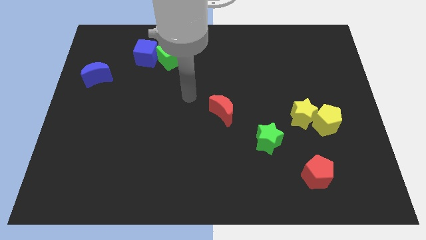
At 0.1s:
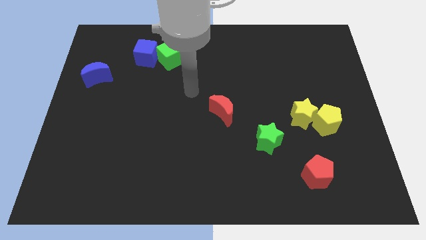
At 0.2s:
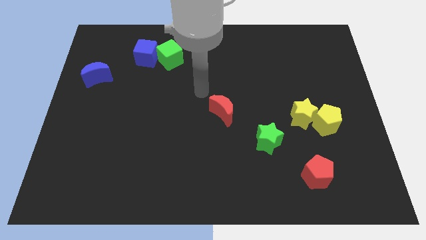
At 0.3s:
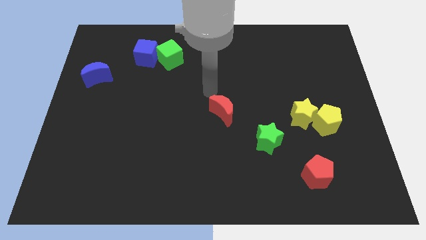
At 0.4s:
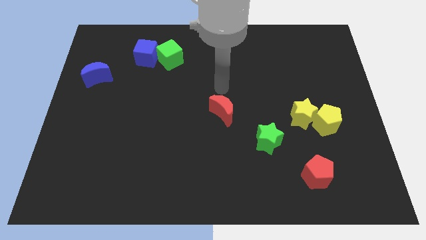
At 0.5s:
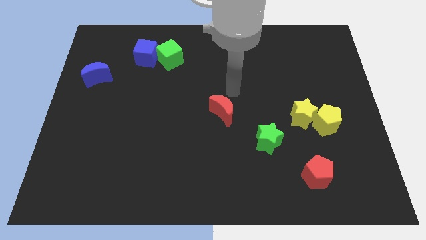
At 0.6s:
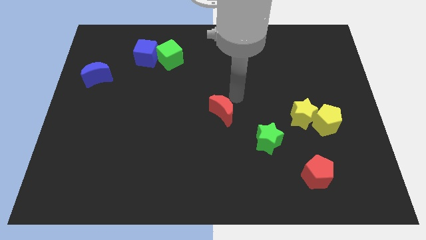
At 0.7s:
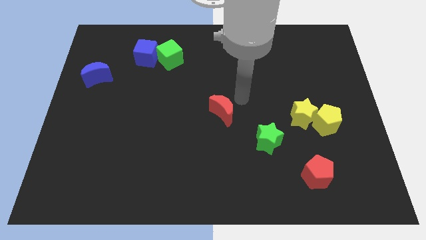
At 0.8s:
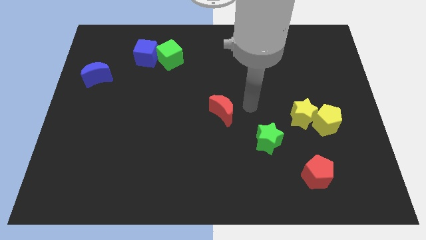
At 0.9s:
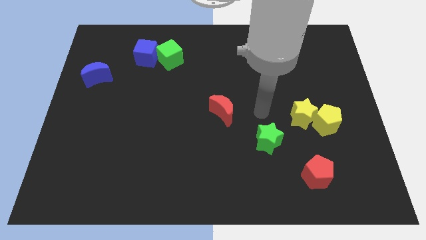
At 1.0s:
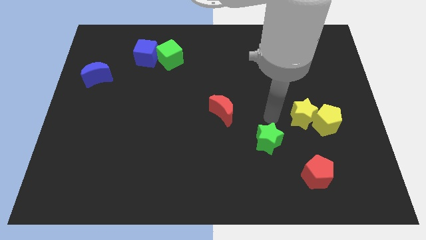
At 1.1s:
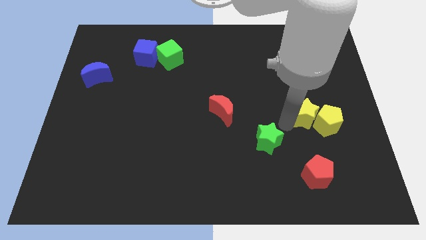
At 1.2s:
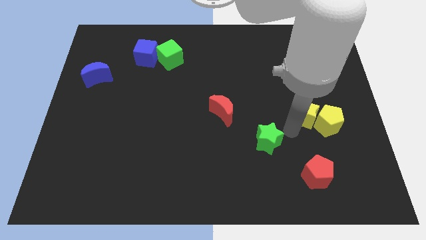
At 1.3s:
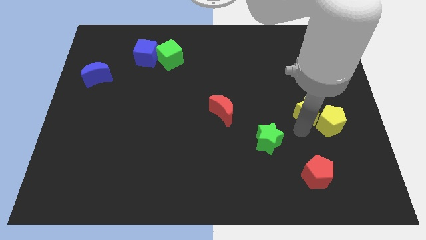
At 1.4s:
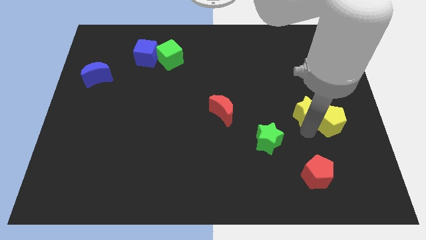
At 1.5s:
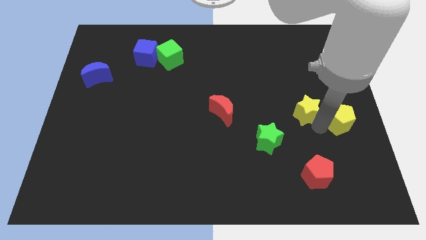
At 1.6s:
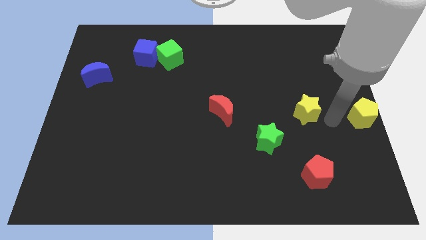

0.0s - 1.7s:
pull the yellow star apart from the yellow pentagon

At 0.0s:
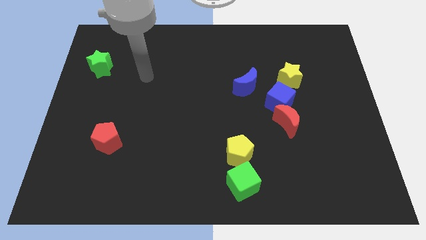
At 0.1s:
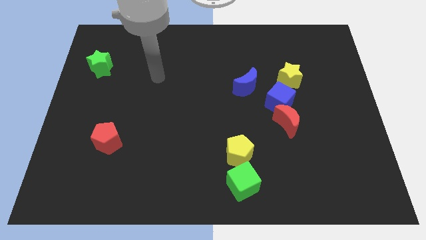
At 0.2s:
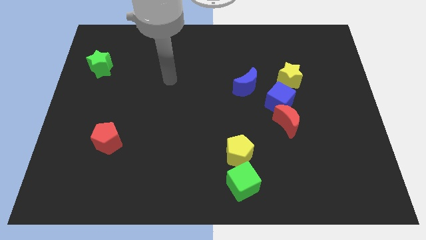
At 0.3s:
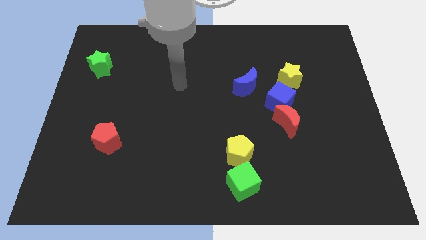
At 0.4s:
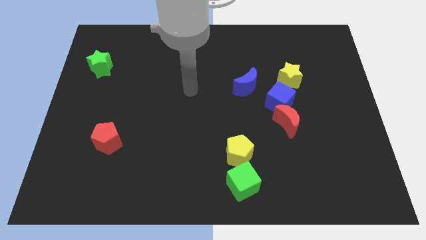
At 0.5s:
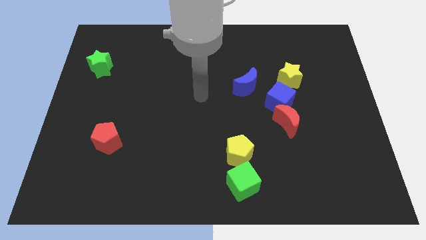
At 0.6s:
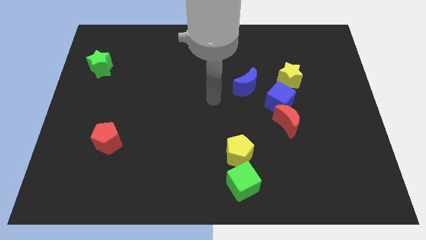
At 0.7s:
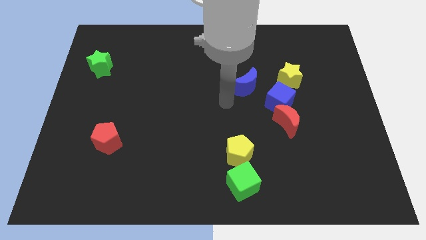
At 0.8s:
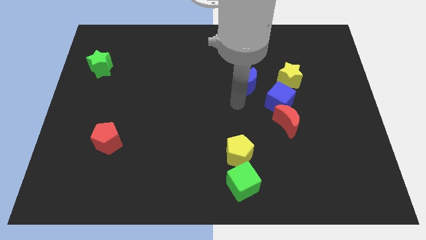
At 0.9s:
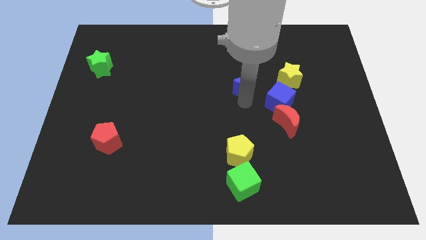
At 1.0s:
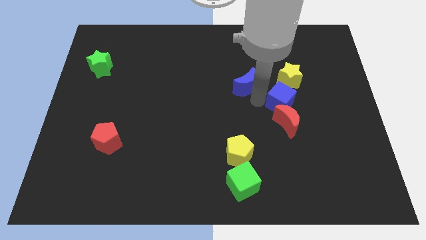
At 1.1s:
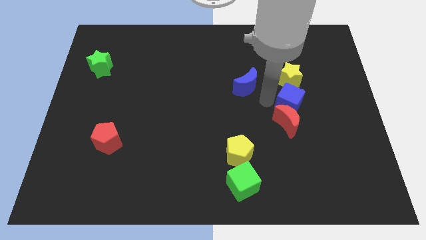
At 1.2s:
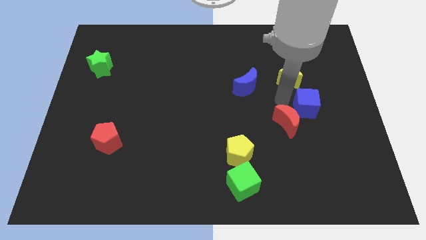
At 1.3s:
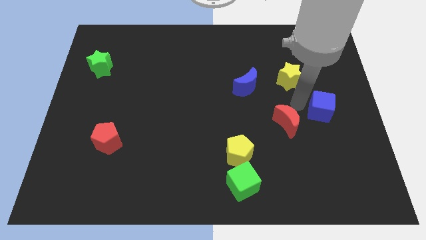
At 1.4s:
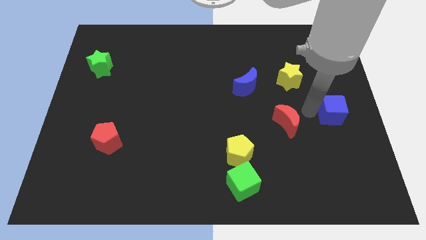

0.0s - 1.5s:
move the red moon away from the blue cube

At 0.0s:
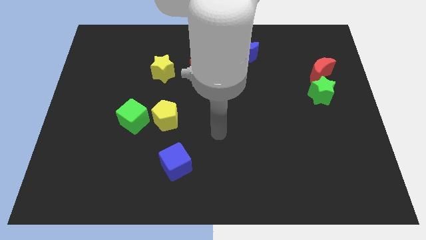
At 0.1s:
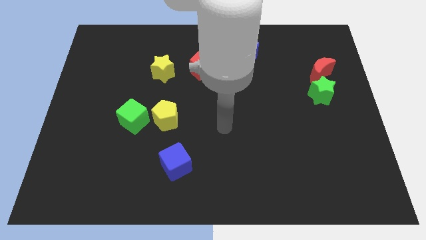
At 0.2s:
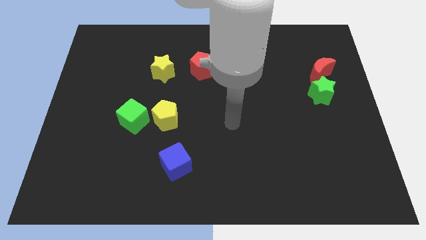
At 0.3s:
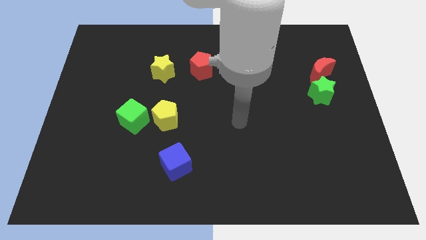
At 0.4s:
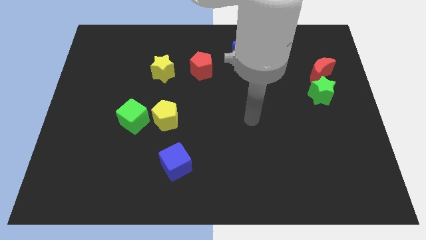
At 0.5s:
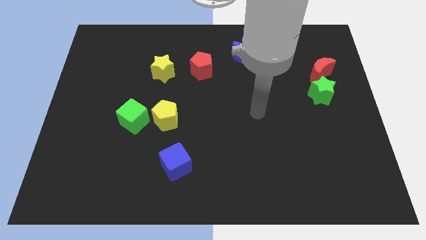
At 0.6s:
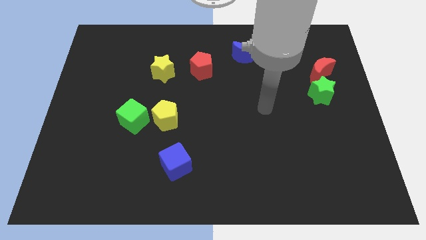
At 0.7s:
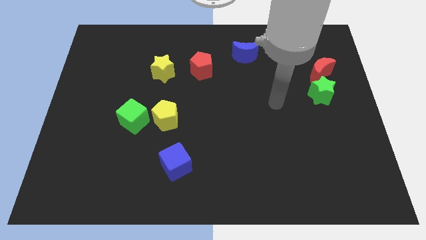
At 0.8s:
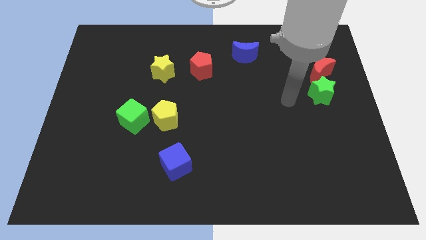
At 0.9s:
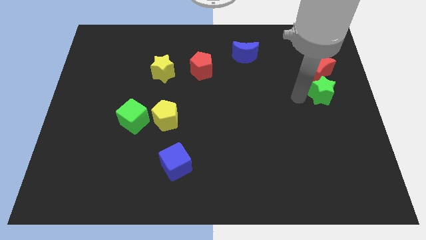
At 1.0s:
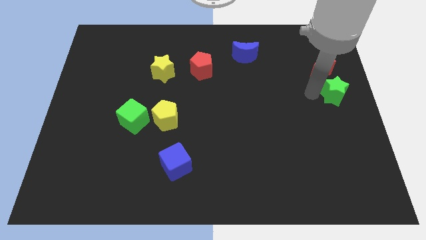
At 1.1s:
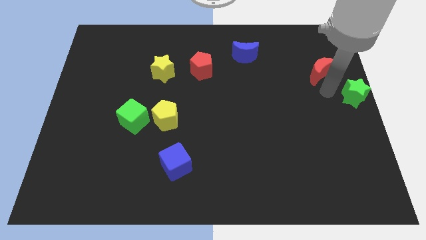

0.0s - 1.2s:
pull the red moon apart from the green star

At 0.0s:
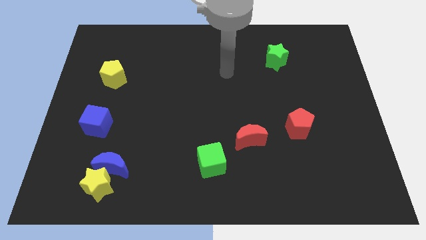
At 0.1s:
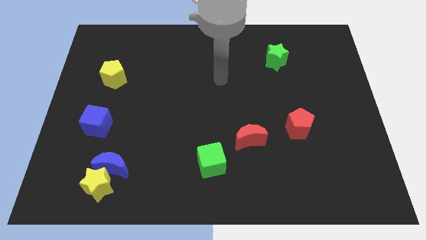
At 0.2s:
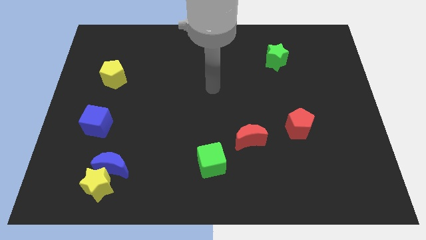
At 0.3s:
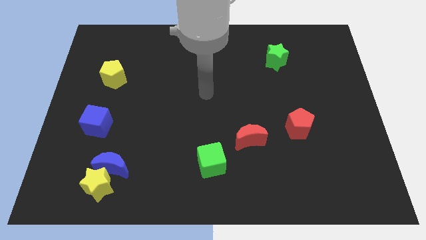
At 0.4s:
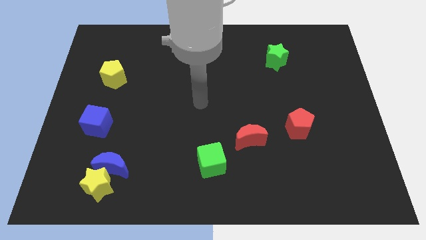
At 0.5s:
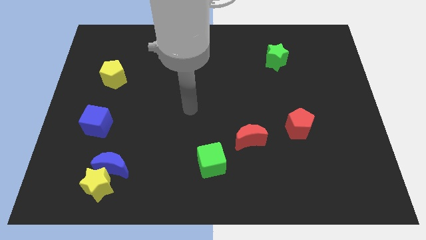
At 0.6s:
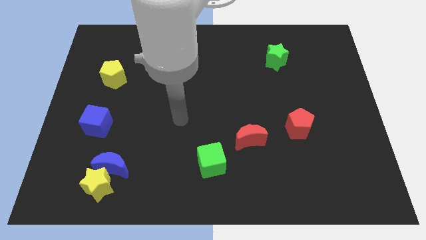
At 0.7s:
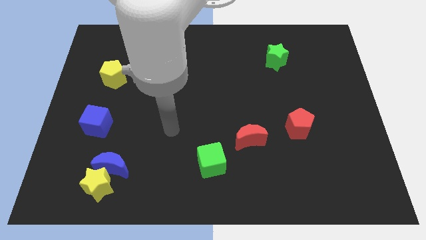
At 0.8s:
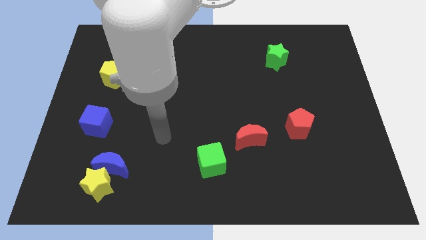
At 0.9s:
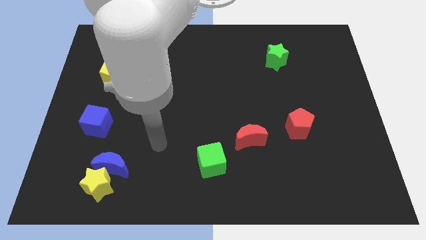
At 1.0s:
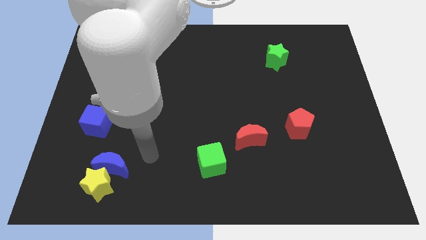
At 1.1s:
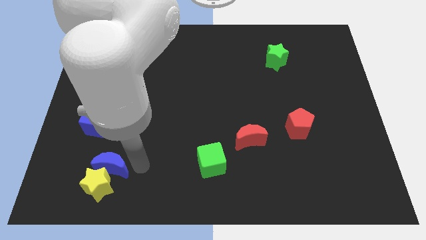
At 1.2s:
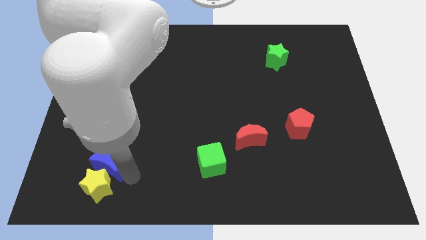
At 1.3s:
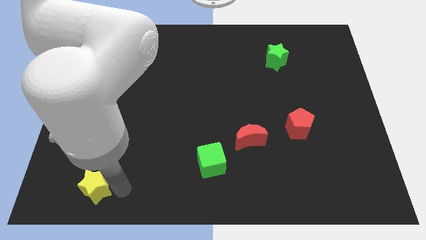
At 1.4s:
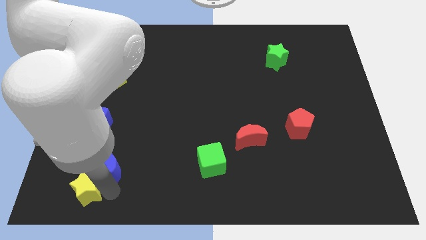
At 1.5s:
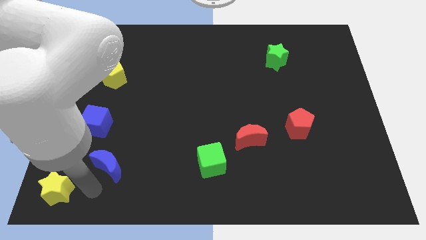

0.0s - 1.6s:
separate the blue moon from the yellow star

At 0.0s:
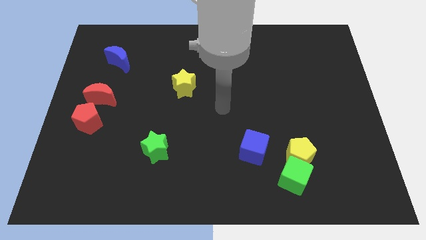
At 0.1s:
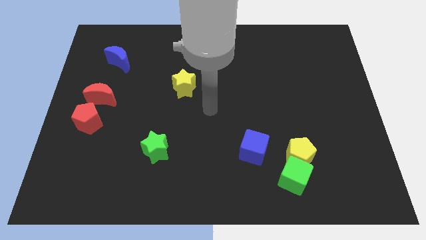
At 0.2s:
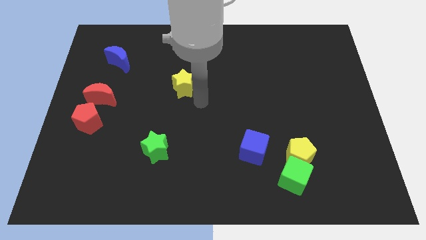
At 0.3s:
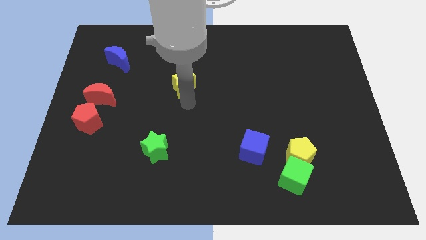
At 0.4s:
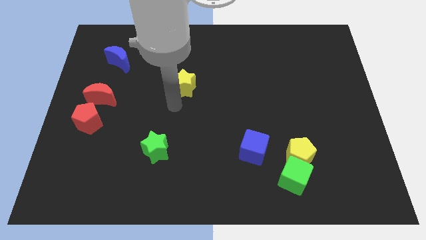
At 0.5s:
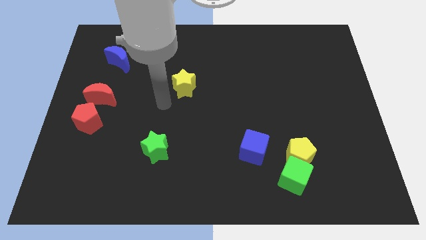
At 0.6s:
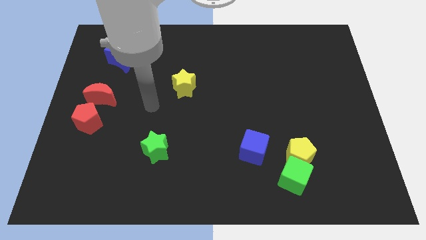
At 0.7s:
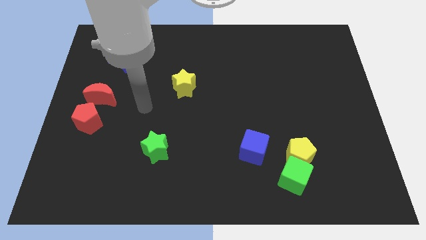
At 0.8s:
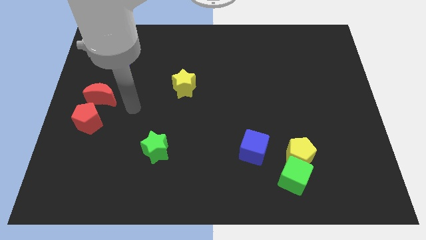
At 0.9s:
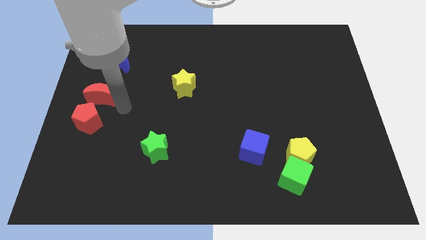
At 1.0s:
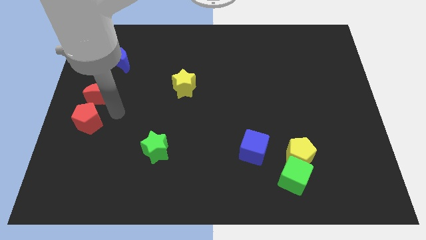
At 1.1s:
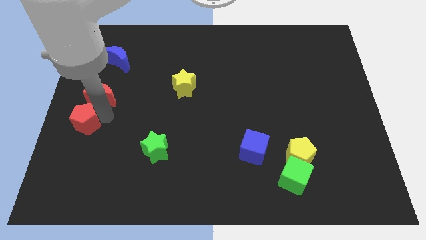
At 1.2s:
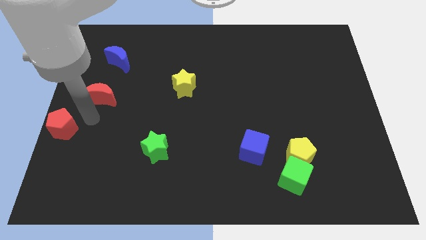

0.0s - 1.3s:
pull the red moon apart from the red pentagon

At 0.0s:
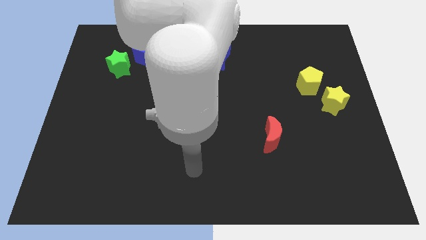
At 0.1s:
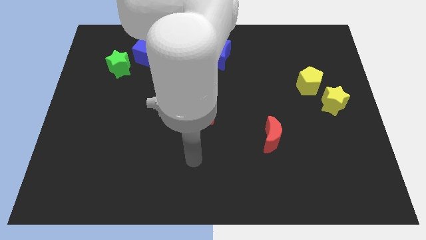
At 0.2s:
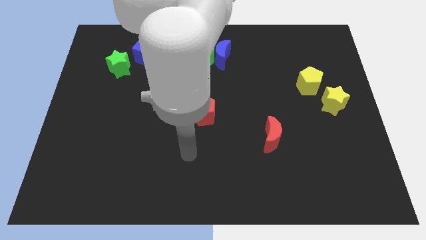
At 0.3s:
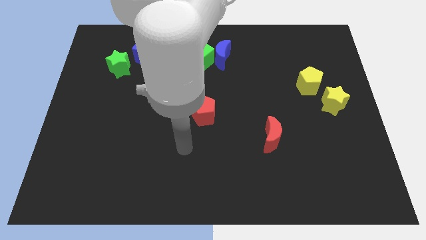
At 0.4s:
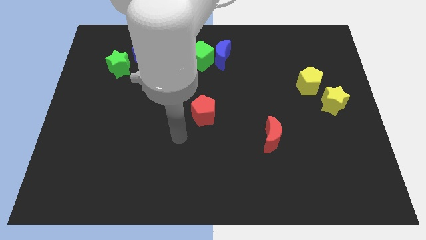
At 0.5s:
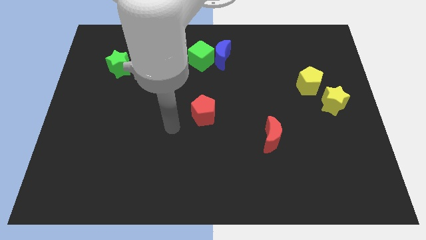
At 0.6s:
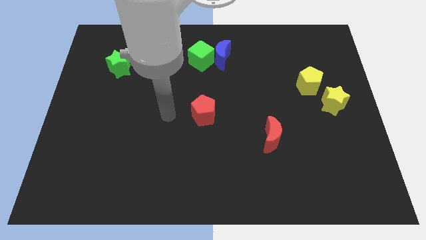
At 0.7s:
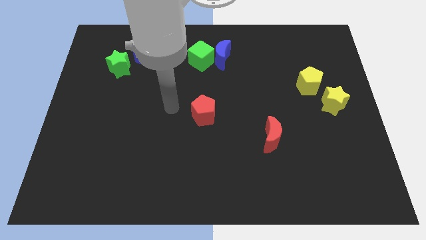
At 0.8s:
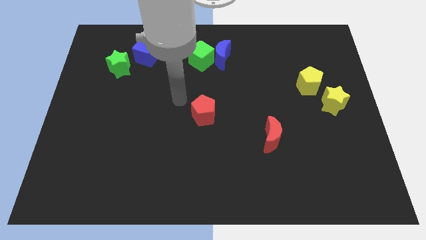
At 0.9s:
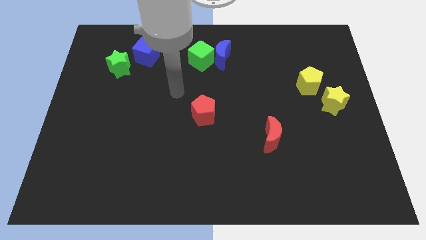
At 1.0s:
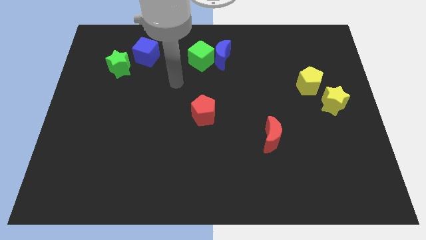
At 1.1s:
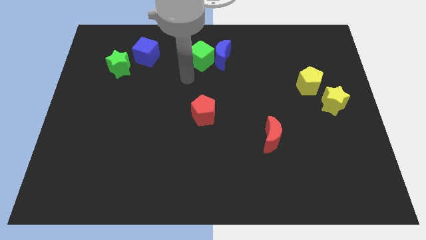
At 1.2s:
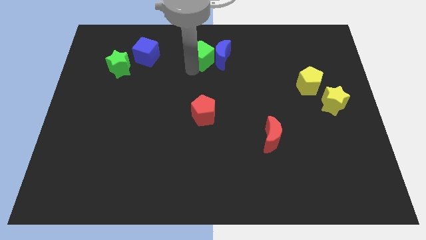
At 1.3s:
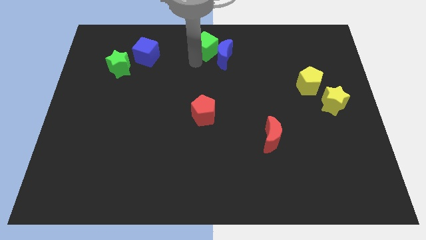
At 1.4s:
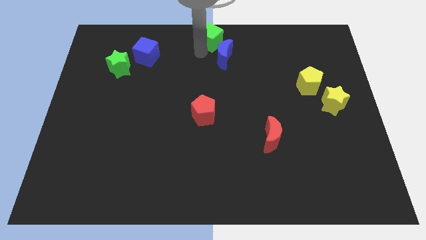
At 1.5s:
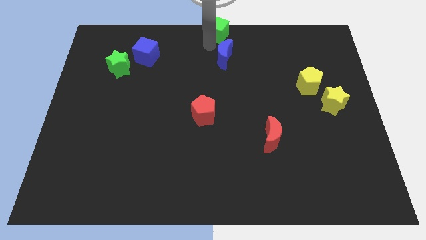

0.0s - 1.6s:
move the blue moon away from the green cube

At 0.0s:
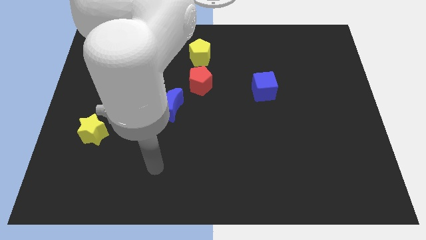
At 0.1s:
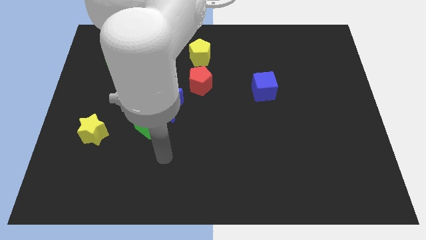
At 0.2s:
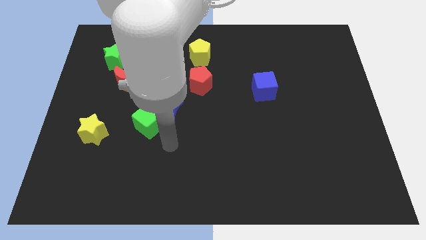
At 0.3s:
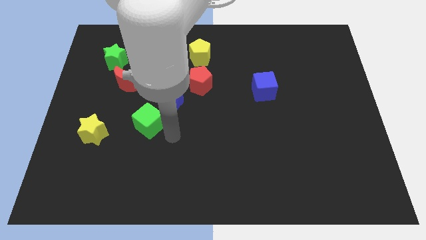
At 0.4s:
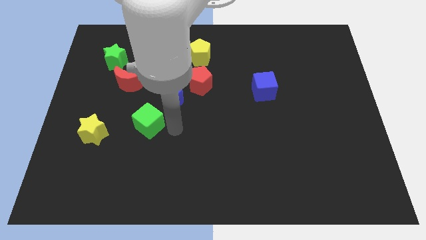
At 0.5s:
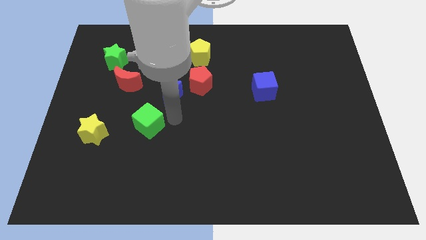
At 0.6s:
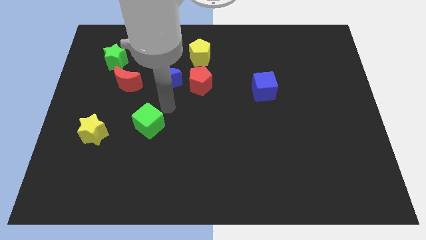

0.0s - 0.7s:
move the green cube away from the blue moon
